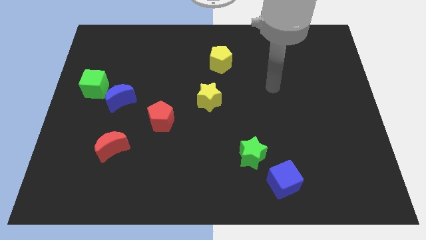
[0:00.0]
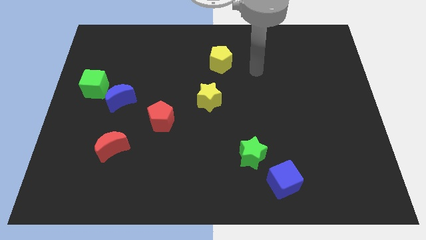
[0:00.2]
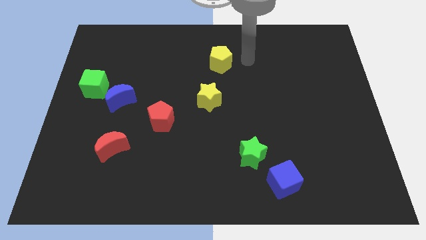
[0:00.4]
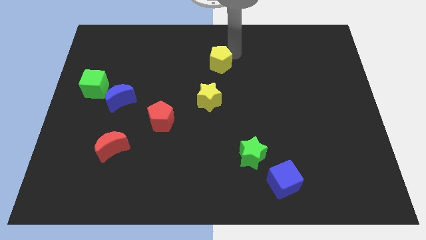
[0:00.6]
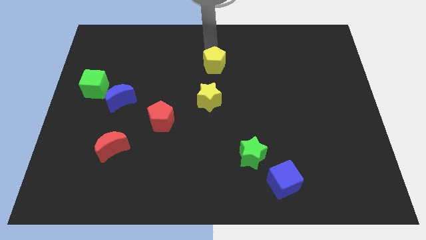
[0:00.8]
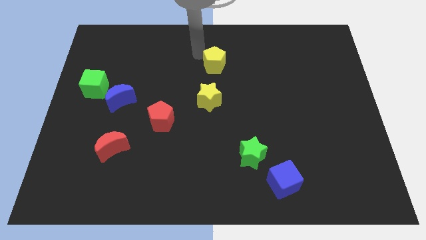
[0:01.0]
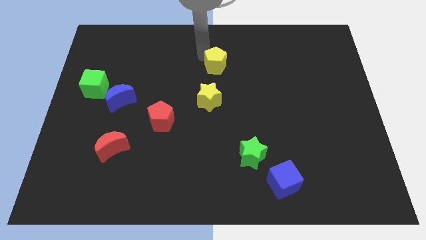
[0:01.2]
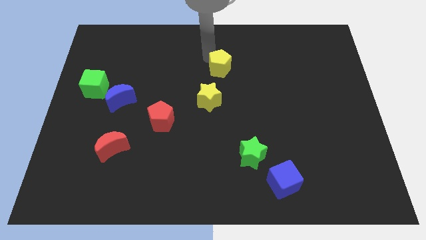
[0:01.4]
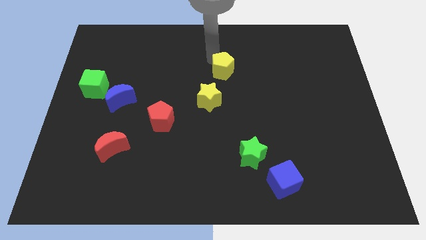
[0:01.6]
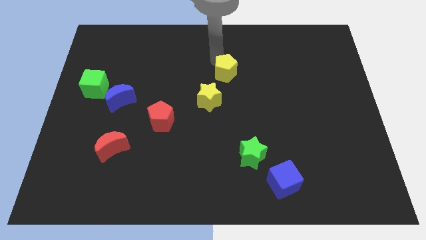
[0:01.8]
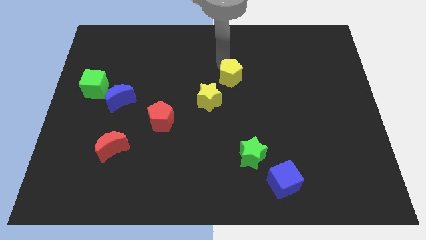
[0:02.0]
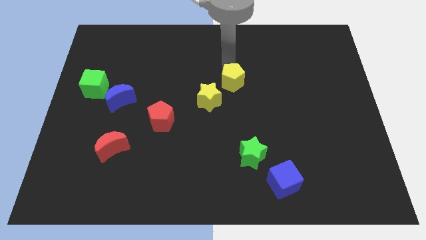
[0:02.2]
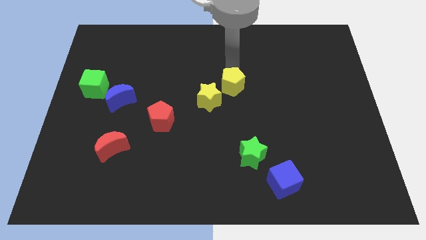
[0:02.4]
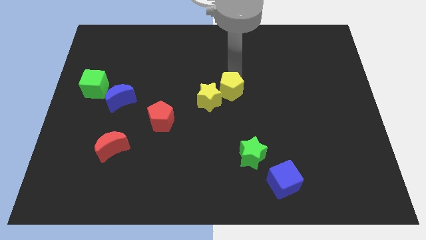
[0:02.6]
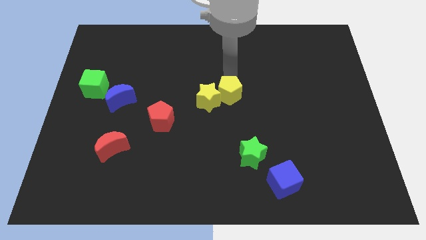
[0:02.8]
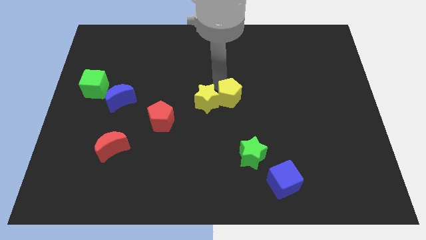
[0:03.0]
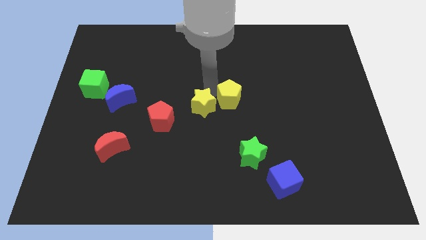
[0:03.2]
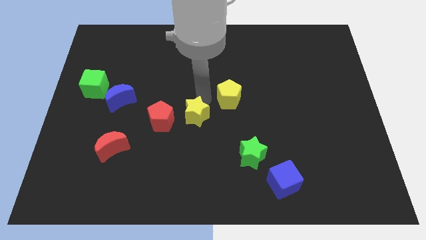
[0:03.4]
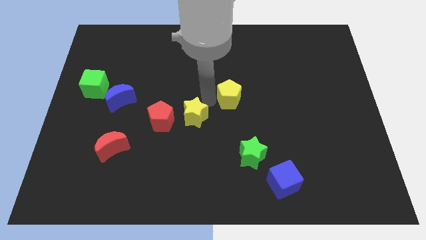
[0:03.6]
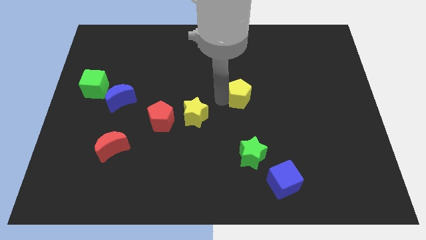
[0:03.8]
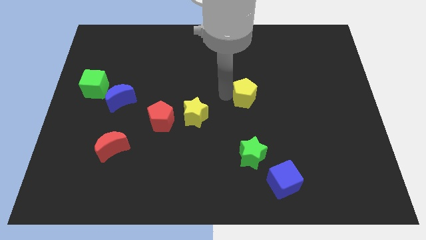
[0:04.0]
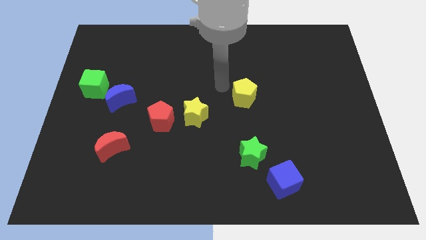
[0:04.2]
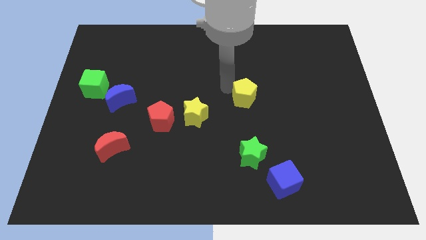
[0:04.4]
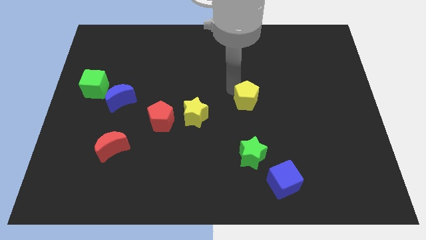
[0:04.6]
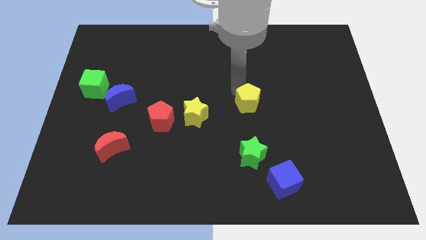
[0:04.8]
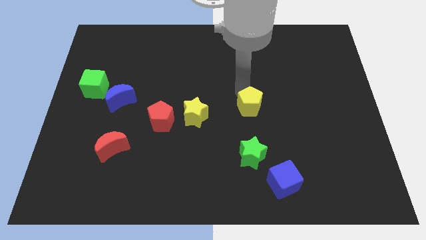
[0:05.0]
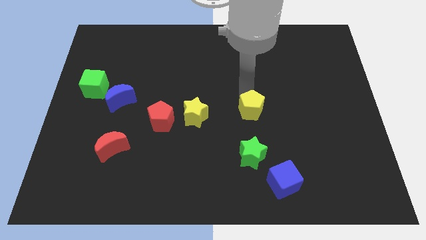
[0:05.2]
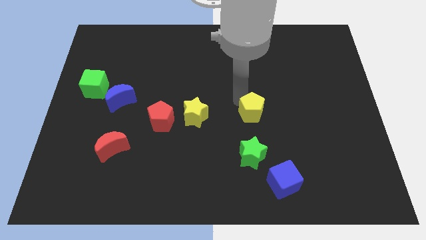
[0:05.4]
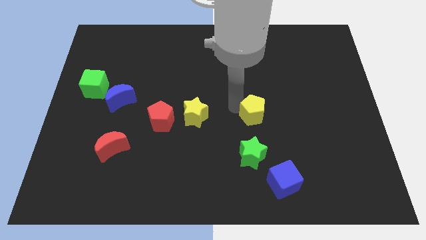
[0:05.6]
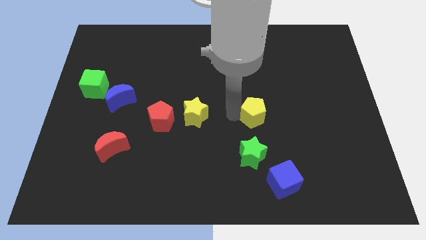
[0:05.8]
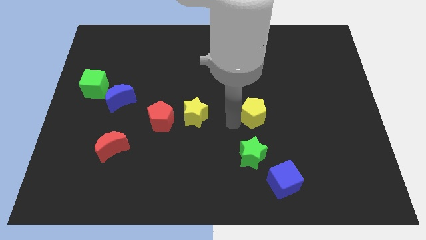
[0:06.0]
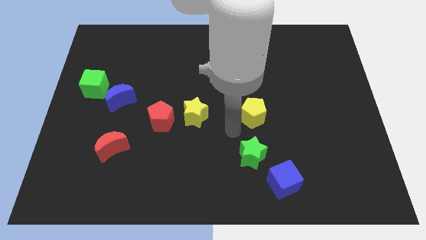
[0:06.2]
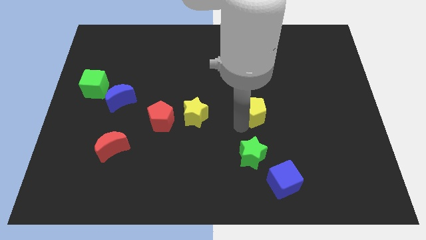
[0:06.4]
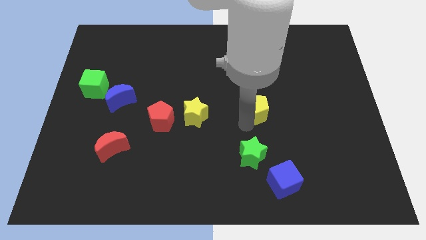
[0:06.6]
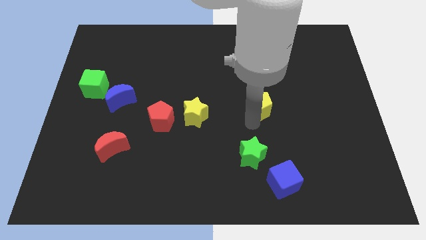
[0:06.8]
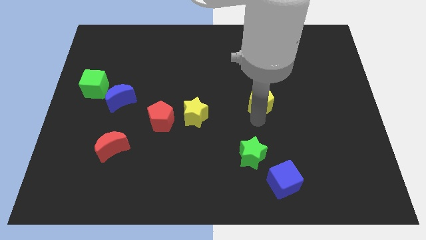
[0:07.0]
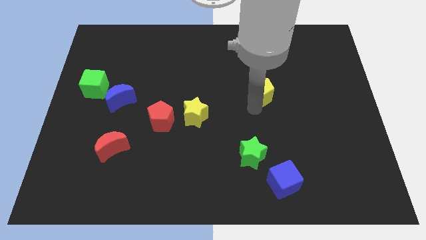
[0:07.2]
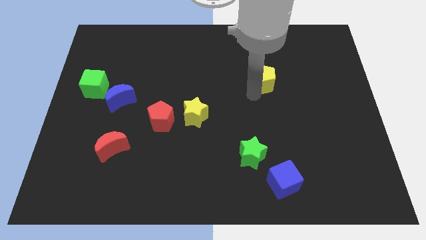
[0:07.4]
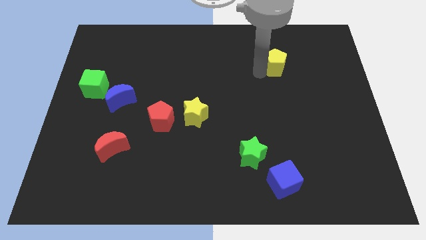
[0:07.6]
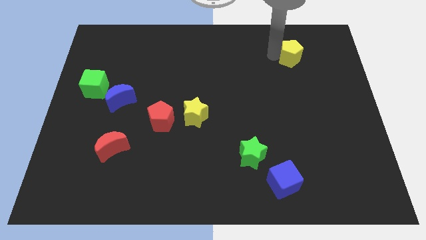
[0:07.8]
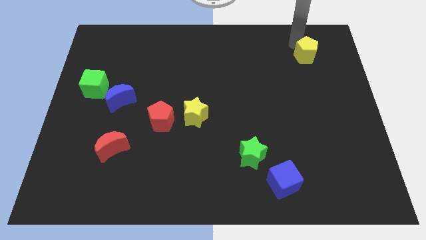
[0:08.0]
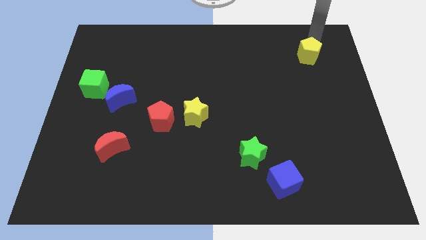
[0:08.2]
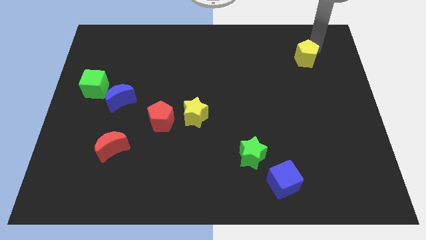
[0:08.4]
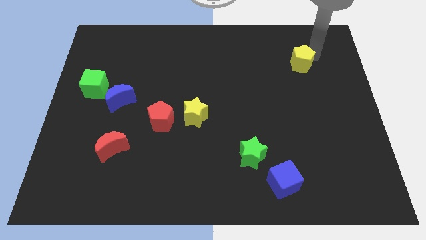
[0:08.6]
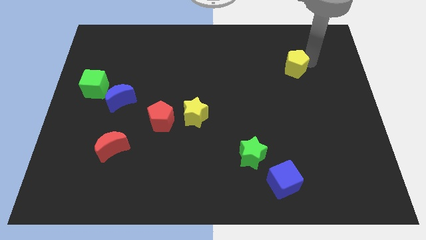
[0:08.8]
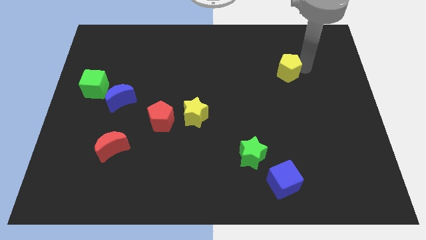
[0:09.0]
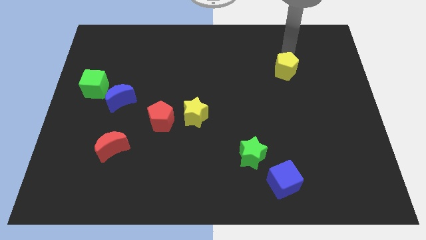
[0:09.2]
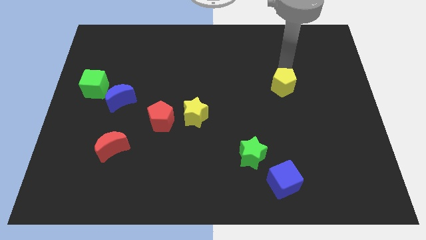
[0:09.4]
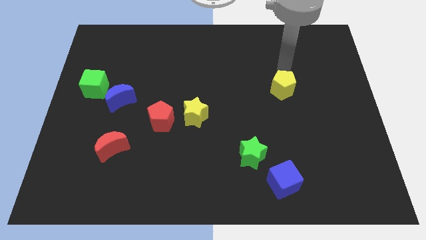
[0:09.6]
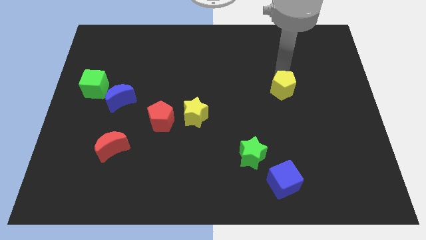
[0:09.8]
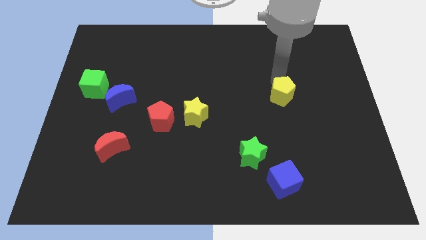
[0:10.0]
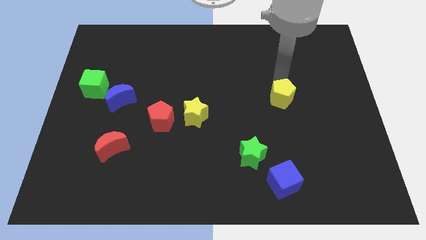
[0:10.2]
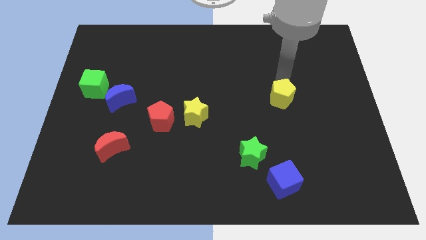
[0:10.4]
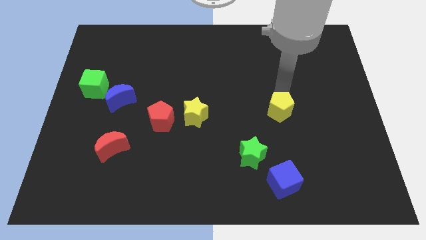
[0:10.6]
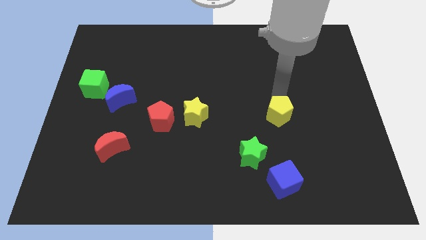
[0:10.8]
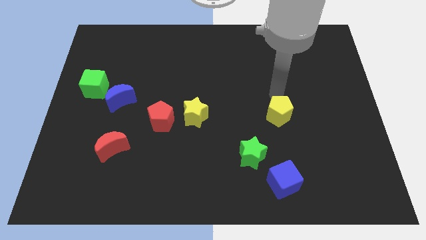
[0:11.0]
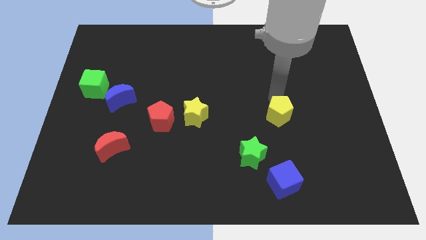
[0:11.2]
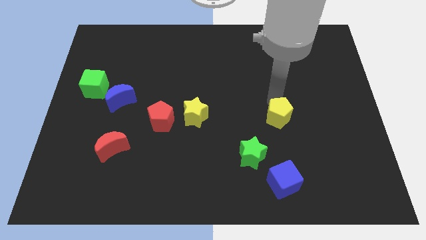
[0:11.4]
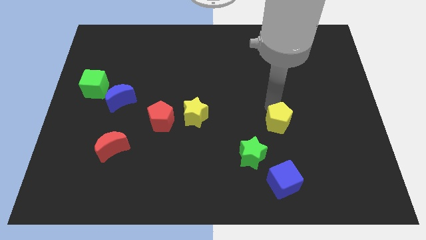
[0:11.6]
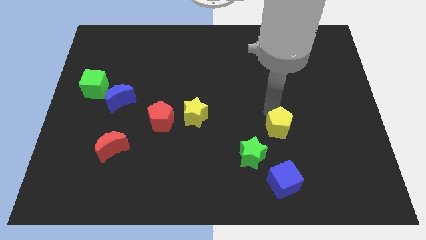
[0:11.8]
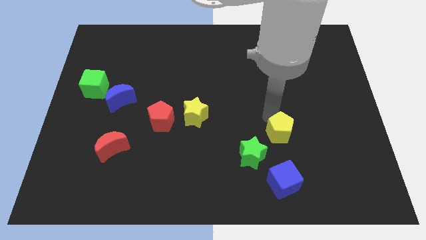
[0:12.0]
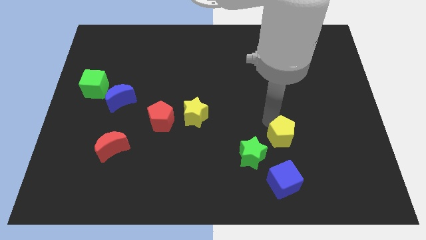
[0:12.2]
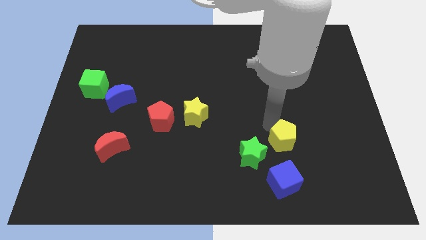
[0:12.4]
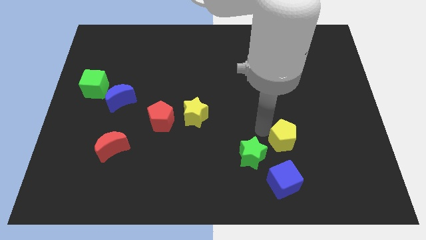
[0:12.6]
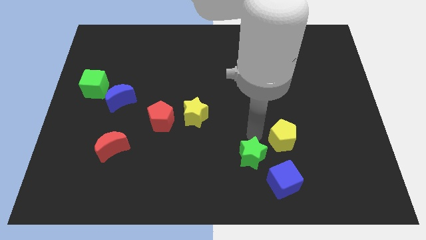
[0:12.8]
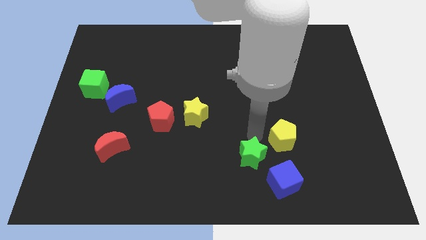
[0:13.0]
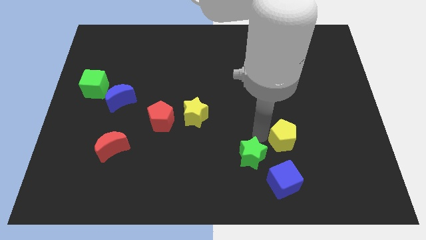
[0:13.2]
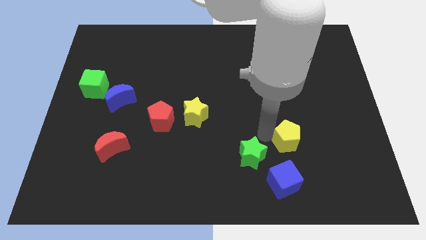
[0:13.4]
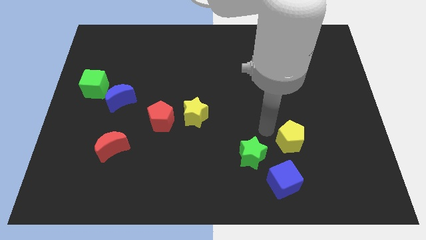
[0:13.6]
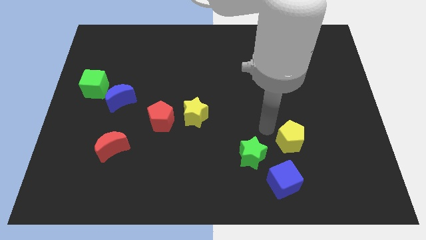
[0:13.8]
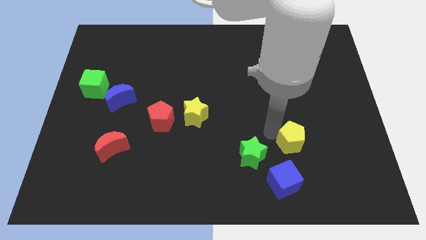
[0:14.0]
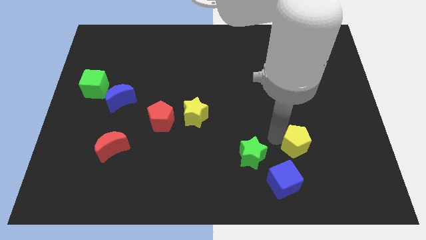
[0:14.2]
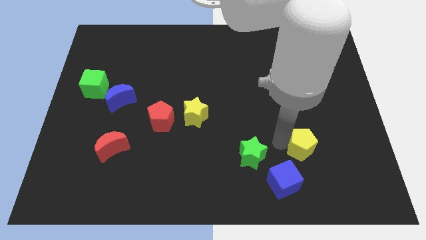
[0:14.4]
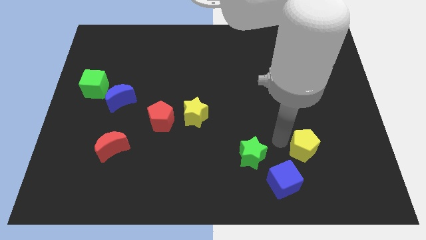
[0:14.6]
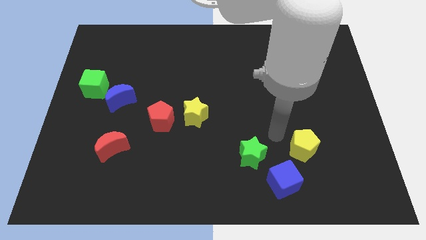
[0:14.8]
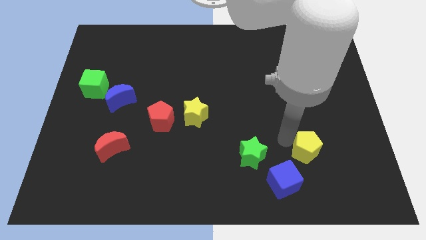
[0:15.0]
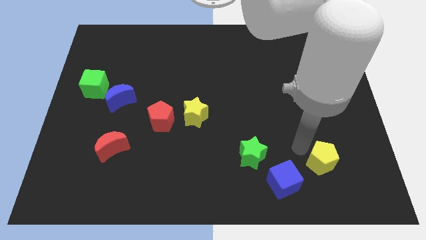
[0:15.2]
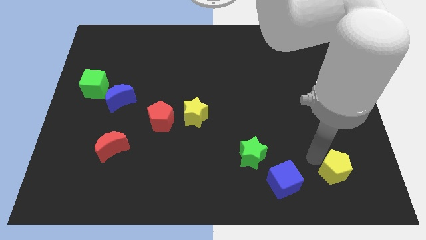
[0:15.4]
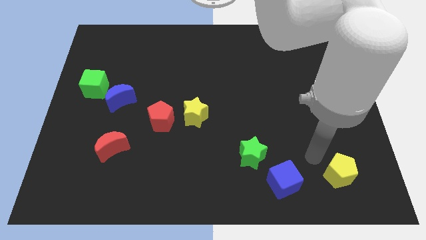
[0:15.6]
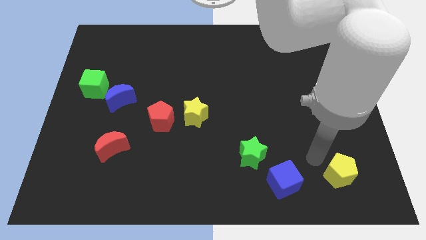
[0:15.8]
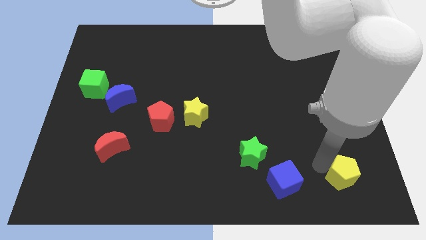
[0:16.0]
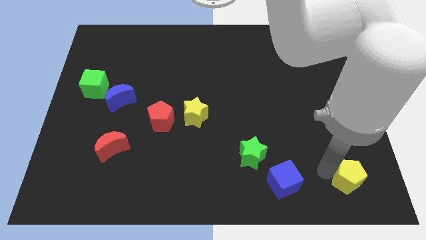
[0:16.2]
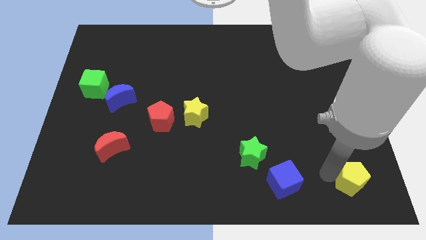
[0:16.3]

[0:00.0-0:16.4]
slide the yellow pentagon to the bottom right corner
